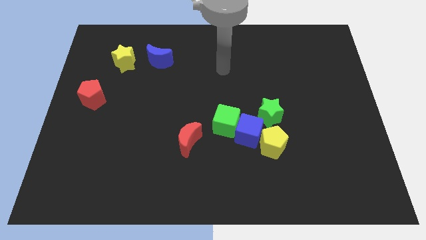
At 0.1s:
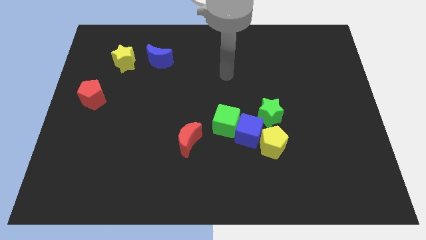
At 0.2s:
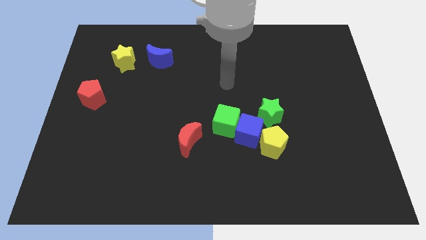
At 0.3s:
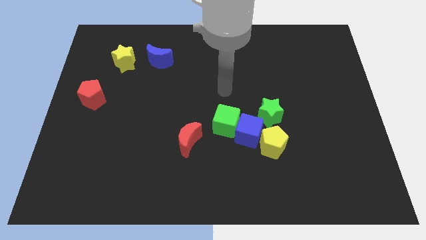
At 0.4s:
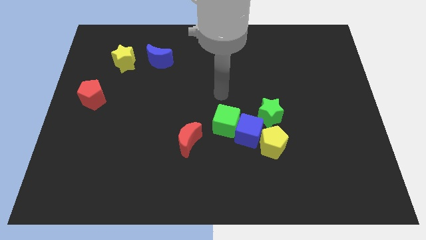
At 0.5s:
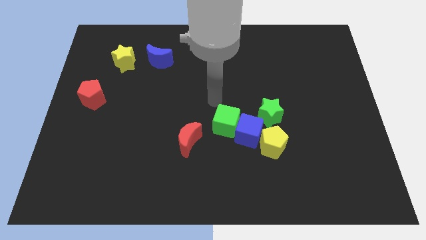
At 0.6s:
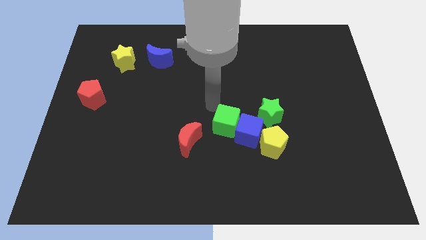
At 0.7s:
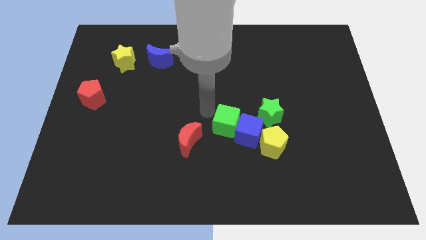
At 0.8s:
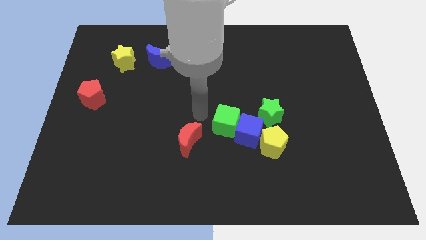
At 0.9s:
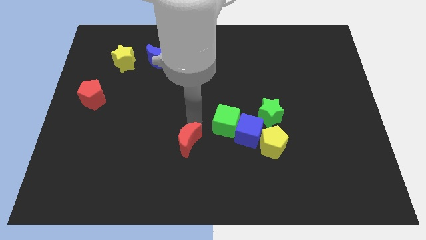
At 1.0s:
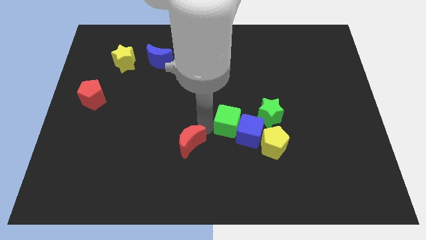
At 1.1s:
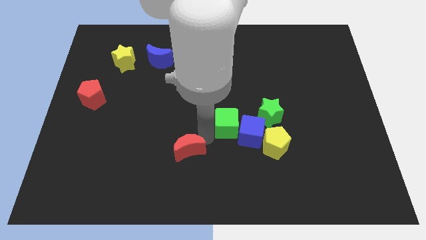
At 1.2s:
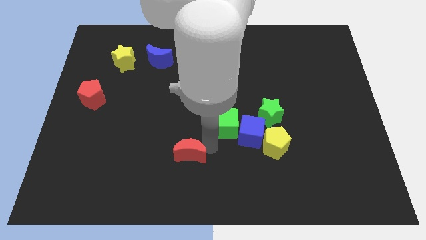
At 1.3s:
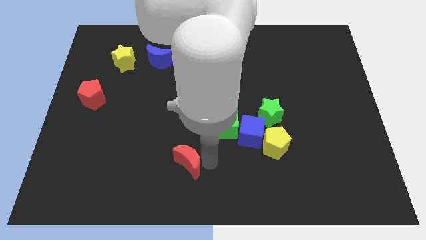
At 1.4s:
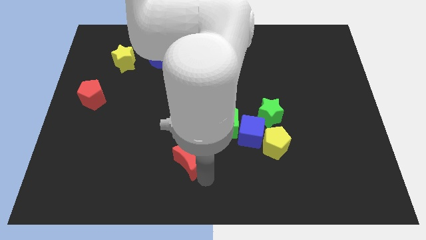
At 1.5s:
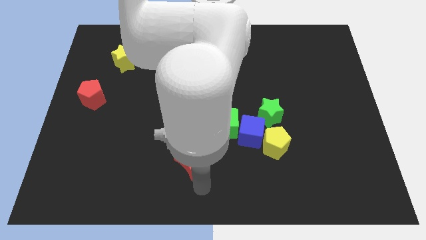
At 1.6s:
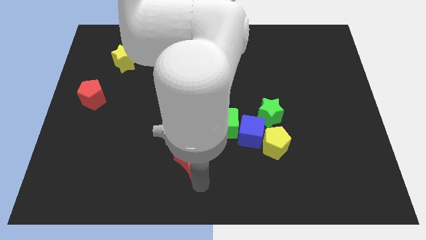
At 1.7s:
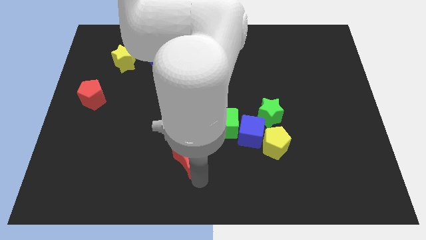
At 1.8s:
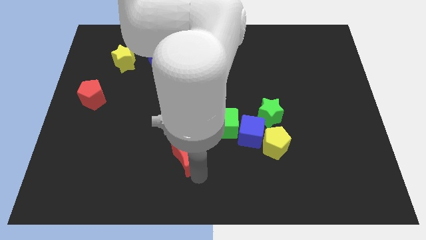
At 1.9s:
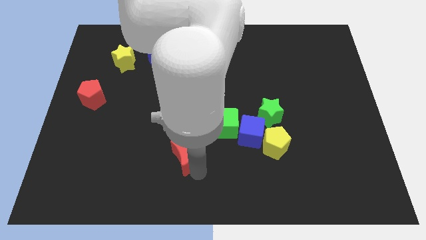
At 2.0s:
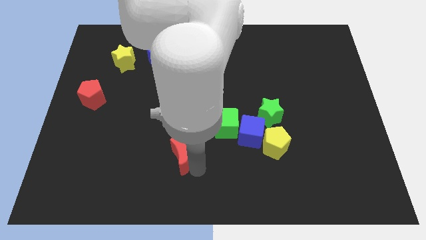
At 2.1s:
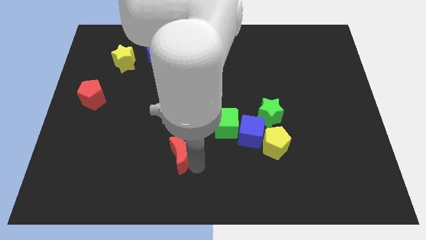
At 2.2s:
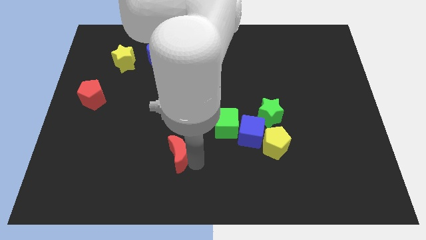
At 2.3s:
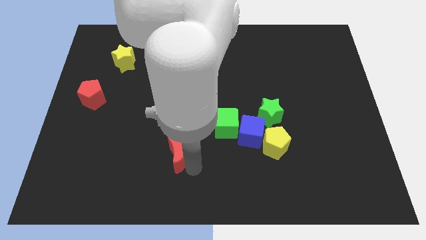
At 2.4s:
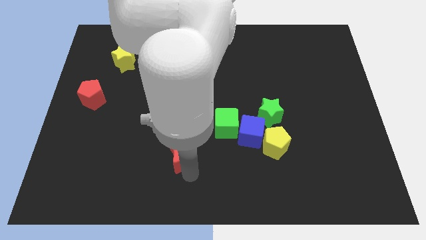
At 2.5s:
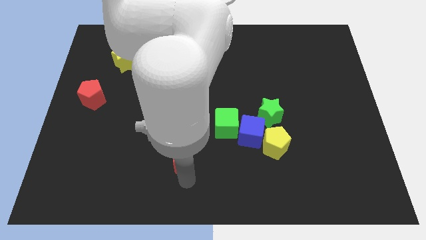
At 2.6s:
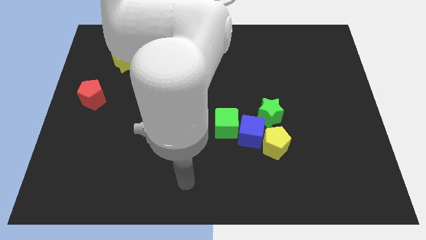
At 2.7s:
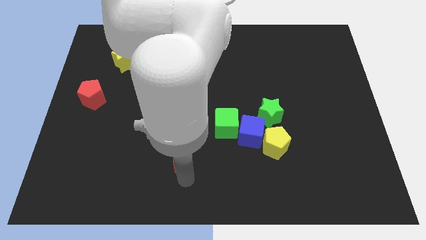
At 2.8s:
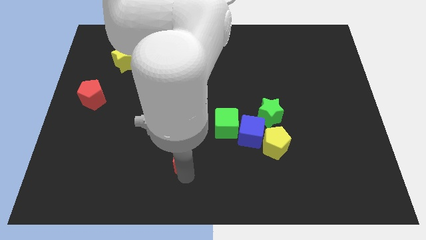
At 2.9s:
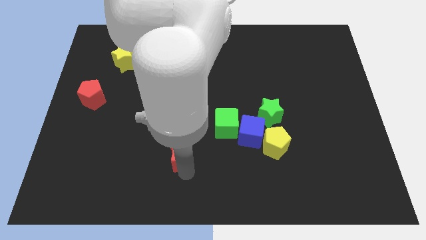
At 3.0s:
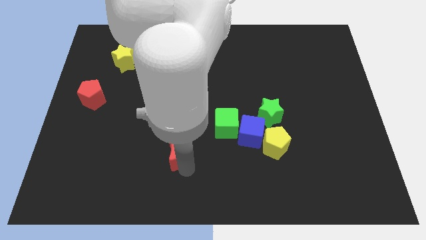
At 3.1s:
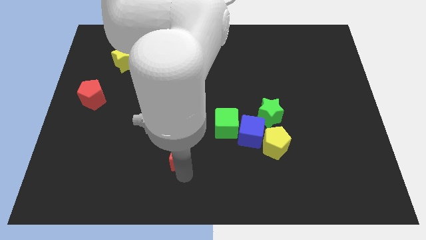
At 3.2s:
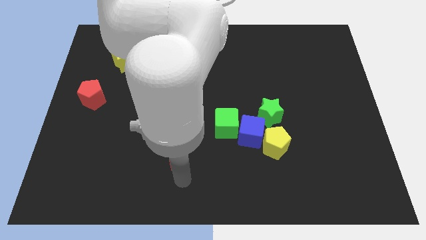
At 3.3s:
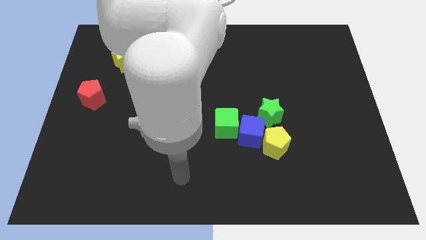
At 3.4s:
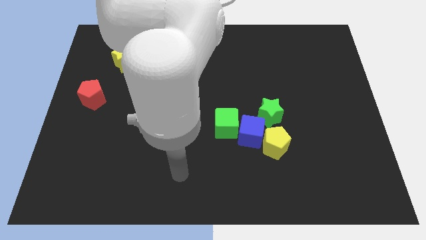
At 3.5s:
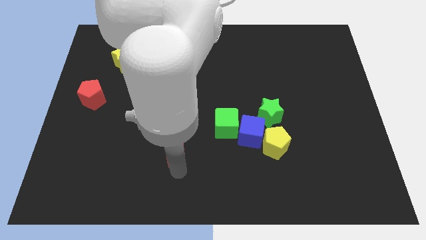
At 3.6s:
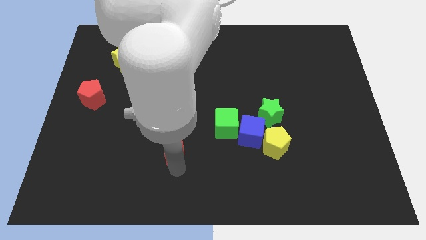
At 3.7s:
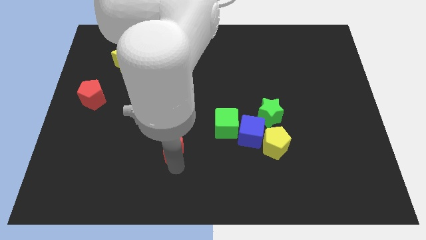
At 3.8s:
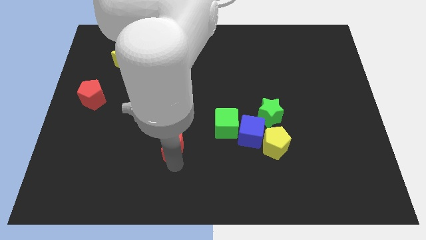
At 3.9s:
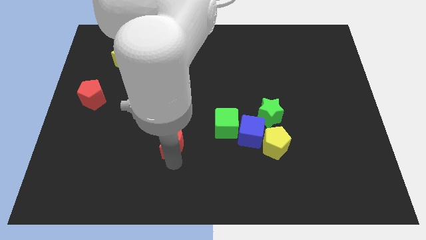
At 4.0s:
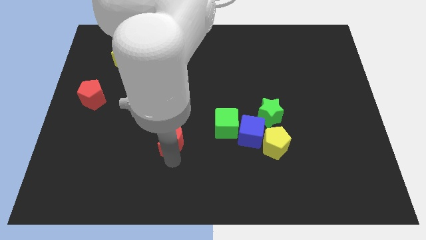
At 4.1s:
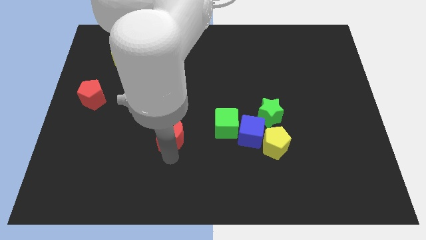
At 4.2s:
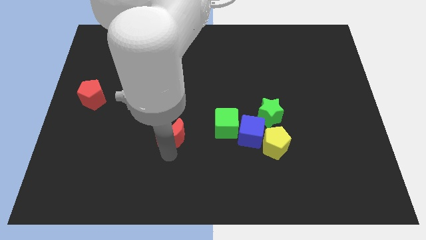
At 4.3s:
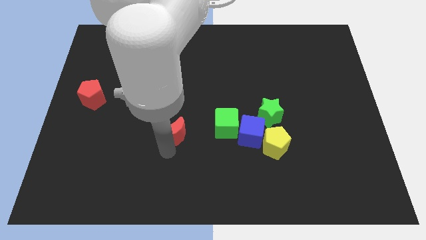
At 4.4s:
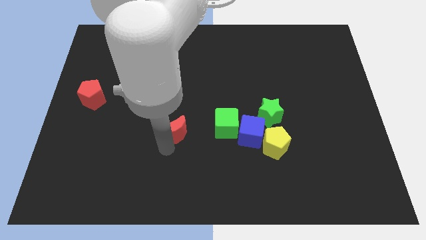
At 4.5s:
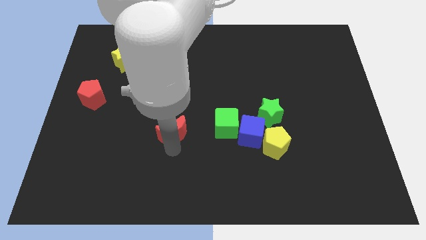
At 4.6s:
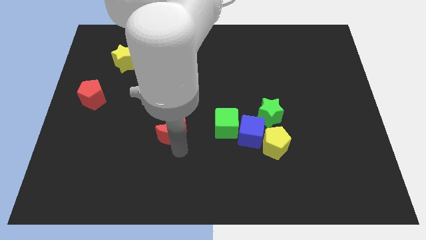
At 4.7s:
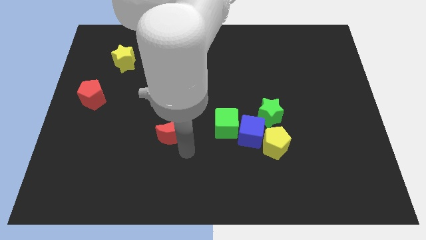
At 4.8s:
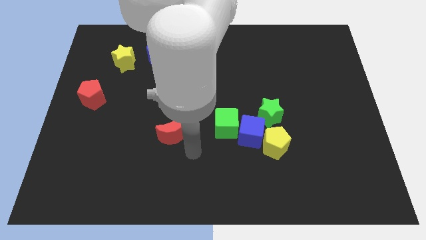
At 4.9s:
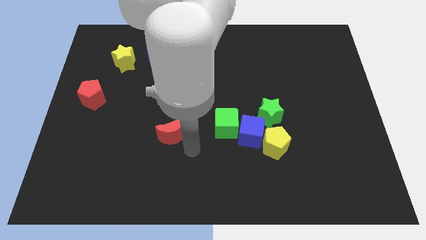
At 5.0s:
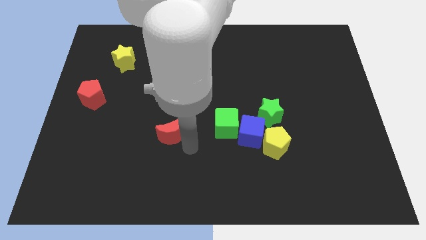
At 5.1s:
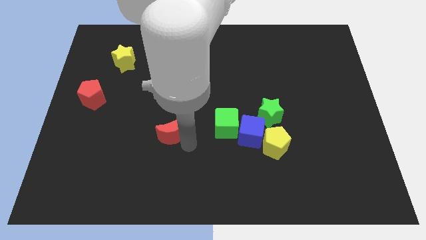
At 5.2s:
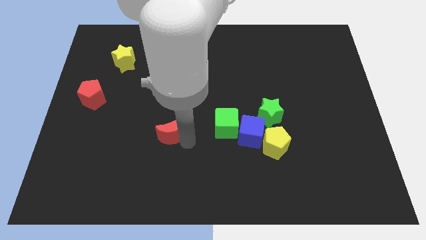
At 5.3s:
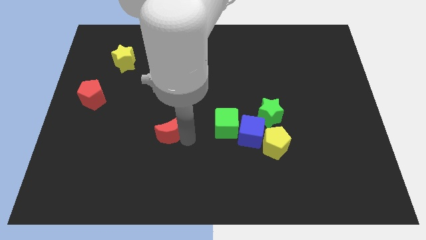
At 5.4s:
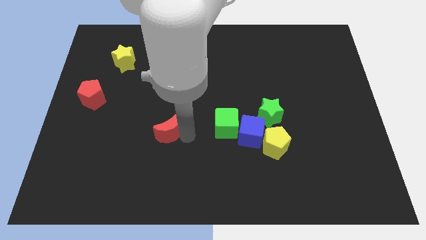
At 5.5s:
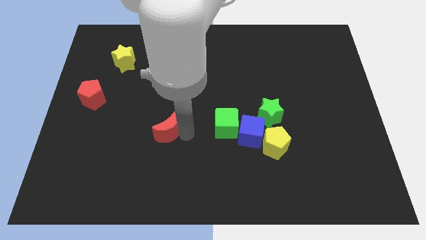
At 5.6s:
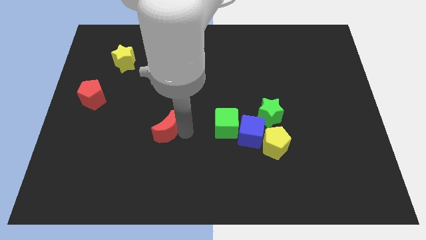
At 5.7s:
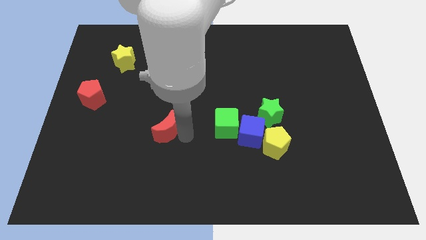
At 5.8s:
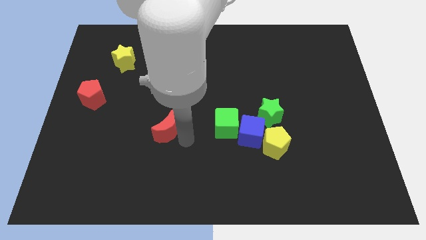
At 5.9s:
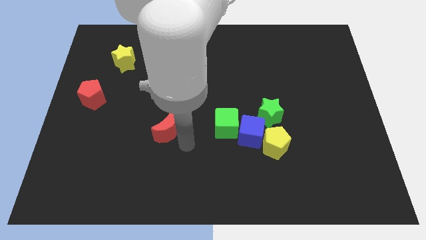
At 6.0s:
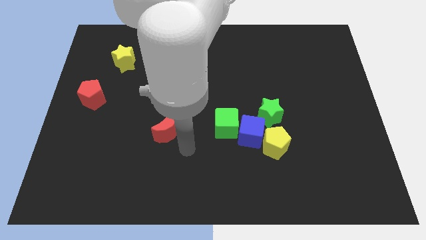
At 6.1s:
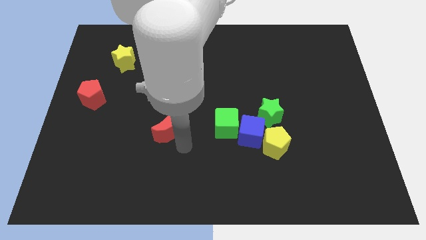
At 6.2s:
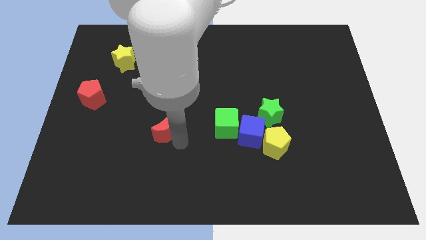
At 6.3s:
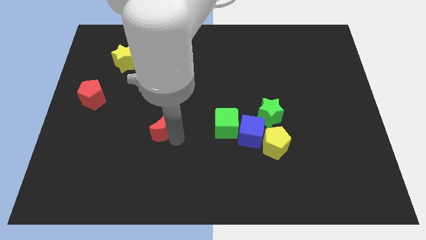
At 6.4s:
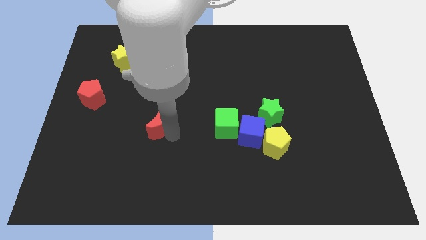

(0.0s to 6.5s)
slightly move the red moon upwards and then to the left

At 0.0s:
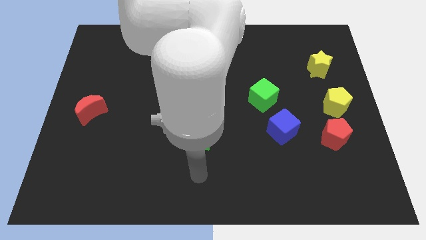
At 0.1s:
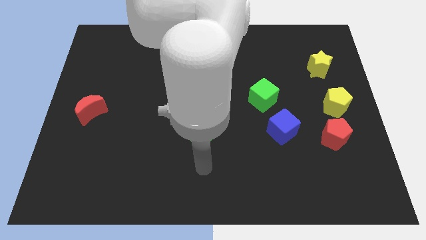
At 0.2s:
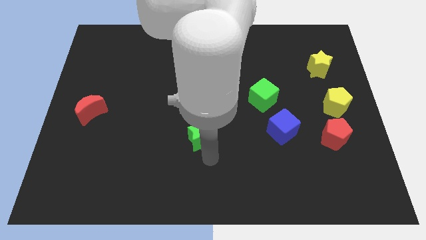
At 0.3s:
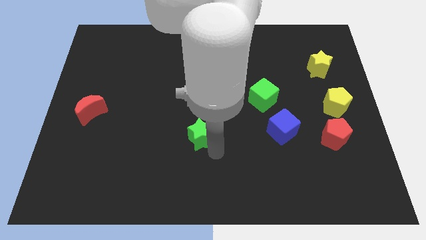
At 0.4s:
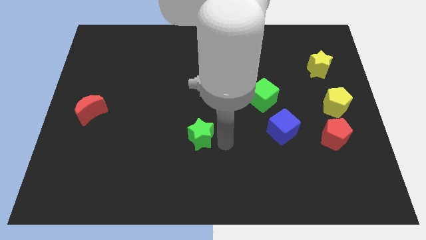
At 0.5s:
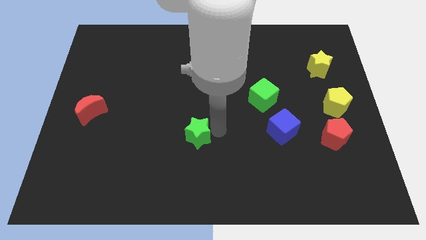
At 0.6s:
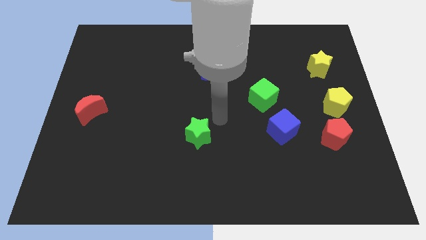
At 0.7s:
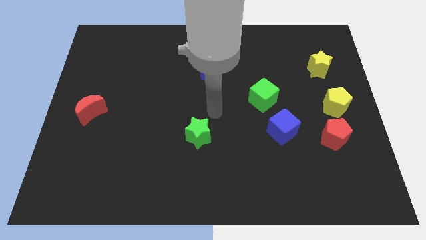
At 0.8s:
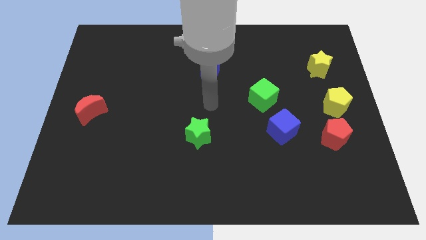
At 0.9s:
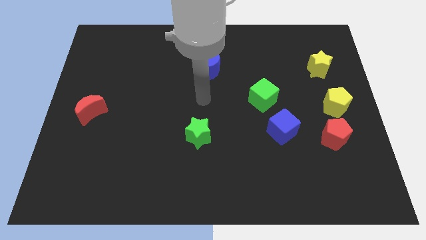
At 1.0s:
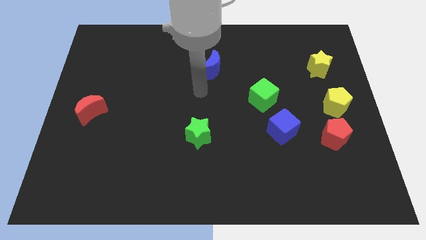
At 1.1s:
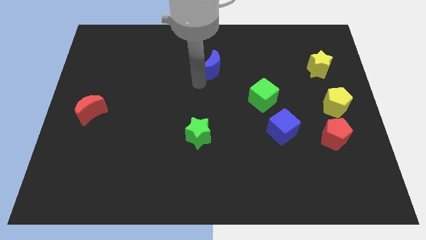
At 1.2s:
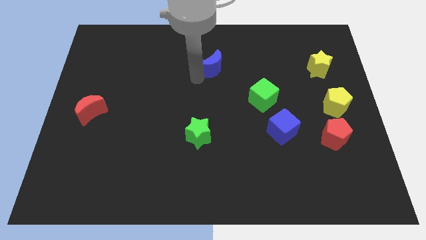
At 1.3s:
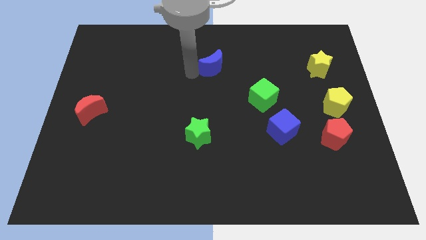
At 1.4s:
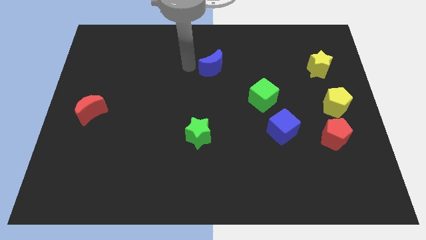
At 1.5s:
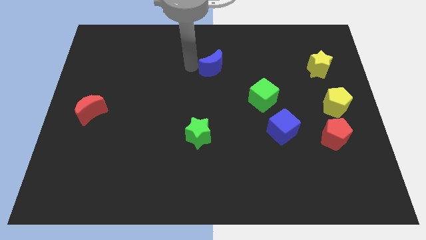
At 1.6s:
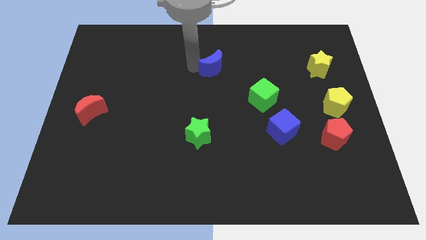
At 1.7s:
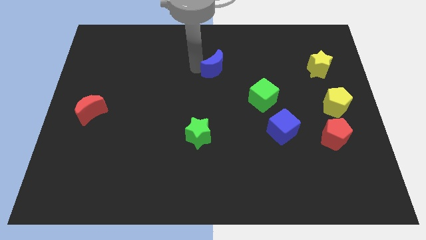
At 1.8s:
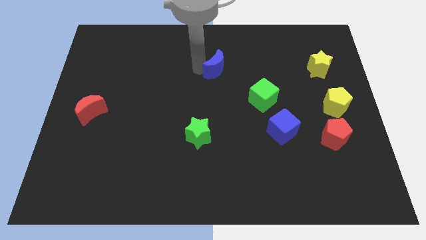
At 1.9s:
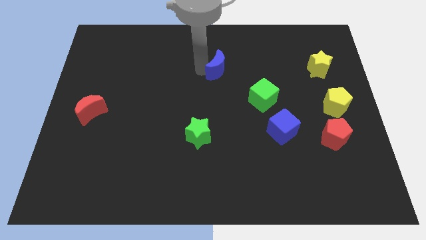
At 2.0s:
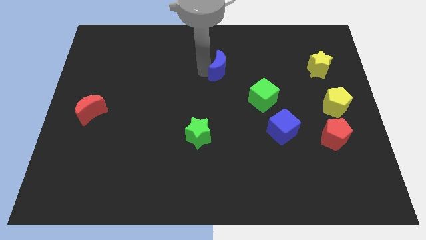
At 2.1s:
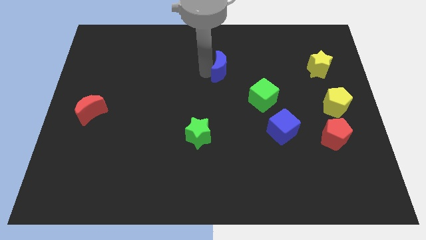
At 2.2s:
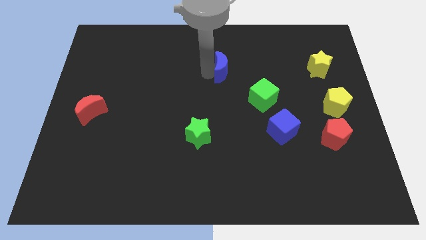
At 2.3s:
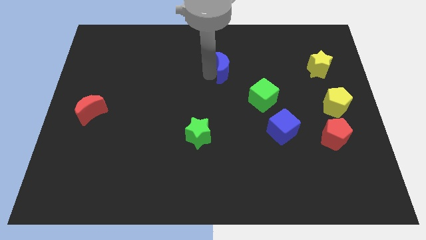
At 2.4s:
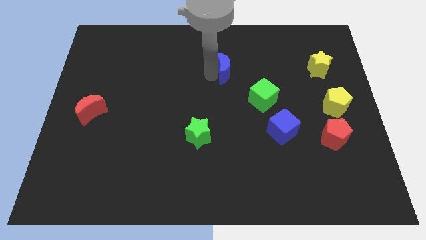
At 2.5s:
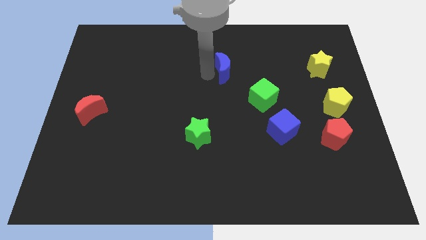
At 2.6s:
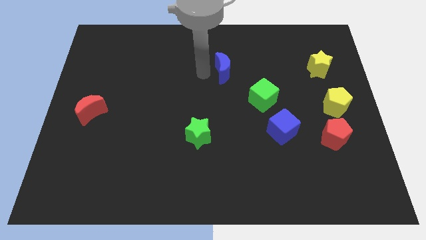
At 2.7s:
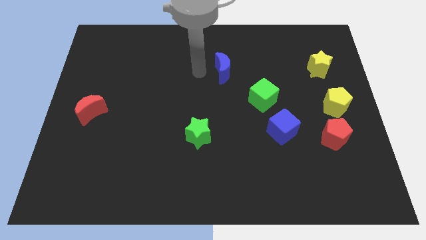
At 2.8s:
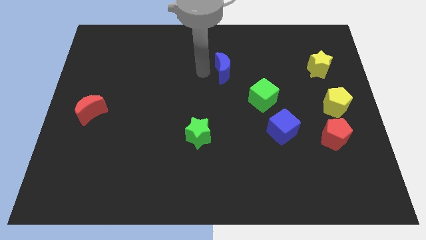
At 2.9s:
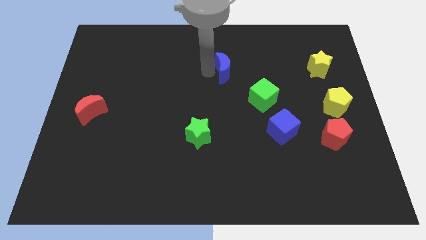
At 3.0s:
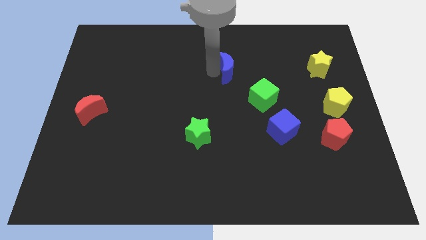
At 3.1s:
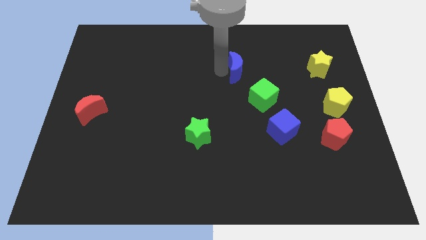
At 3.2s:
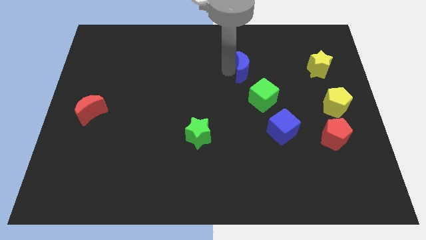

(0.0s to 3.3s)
push the blue moon to the right a little bit
